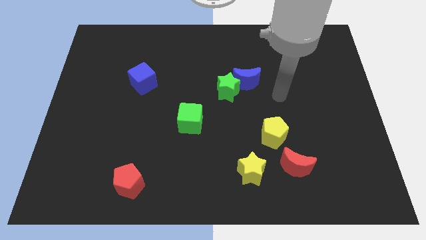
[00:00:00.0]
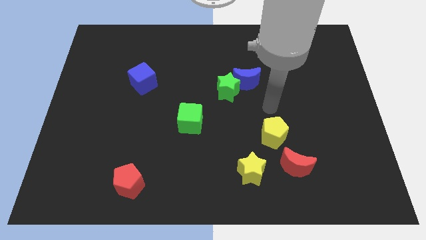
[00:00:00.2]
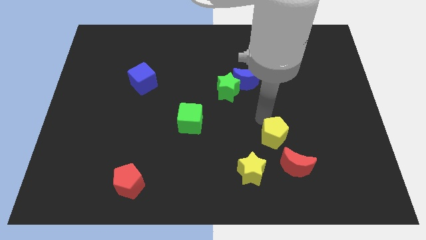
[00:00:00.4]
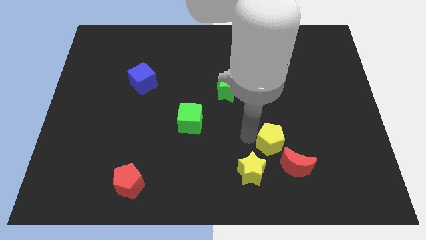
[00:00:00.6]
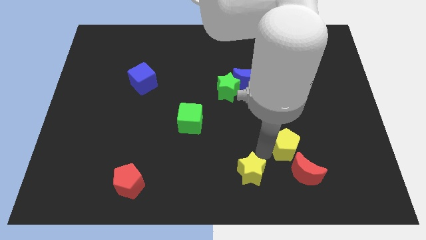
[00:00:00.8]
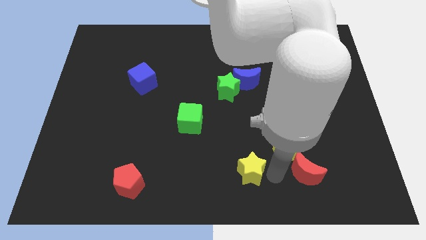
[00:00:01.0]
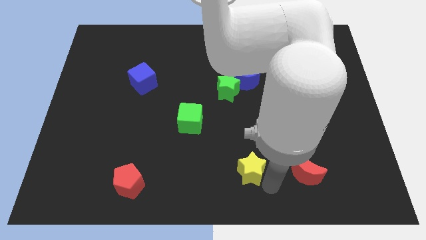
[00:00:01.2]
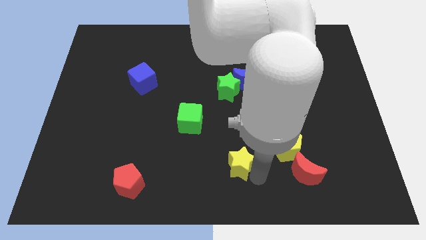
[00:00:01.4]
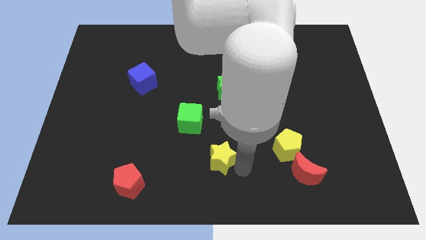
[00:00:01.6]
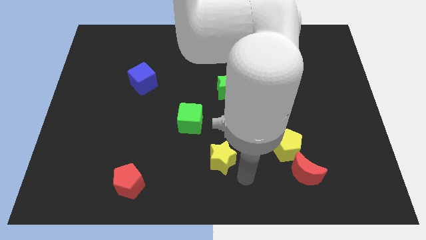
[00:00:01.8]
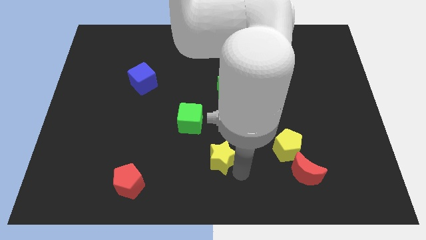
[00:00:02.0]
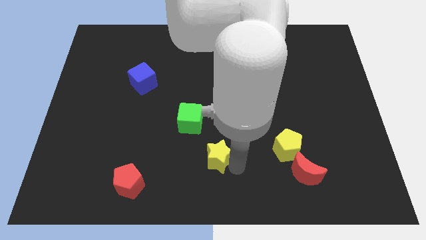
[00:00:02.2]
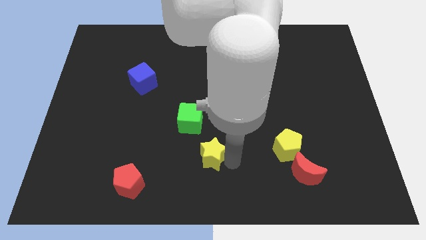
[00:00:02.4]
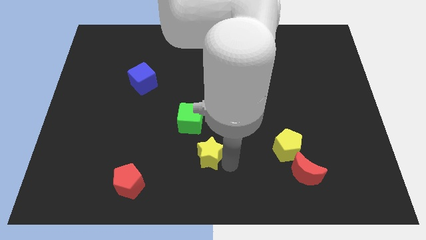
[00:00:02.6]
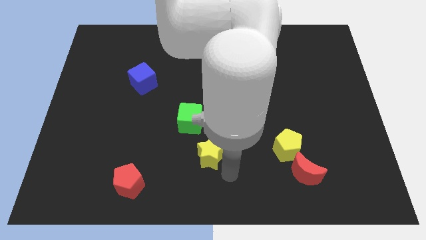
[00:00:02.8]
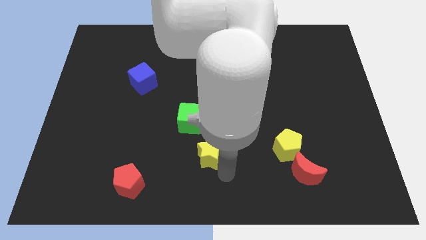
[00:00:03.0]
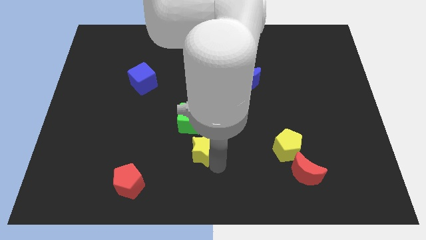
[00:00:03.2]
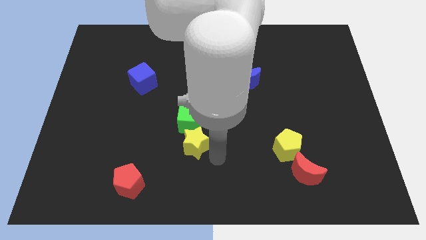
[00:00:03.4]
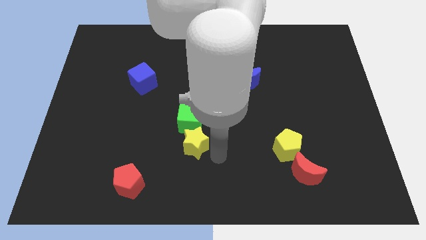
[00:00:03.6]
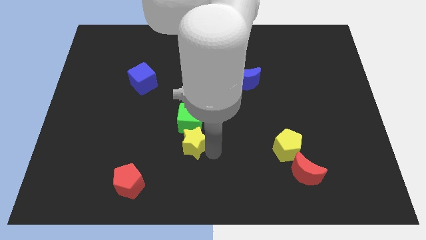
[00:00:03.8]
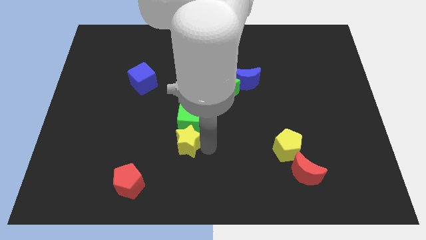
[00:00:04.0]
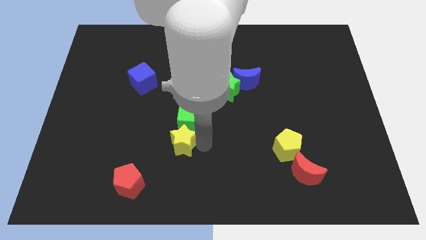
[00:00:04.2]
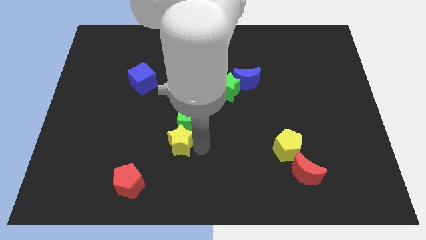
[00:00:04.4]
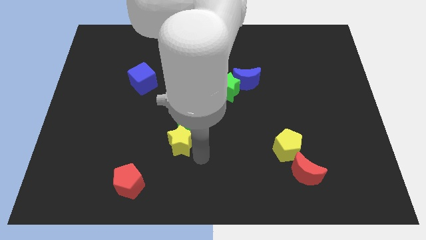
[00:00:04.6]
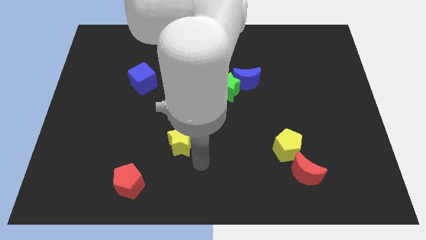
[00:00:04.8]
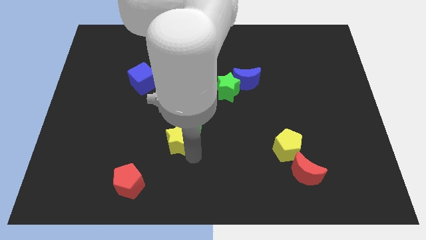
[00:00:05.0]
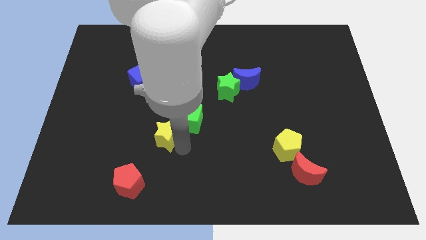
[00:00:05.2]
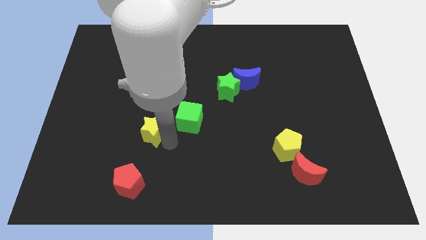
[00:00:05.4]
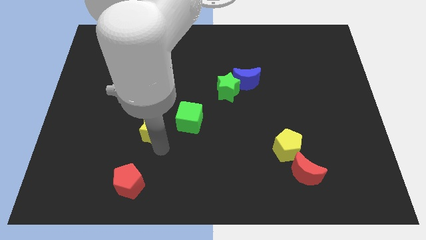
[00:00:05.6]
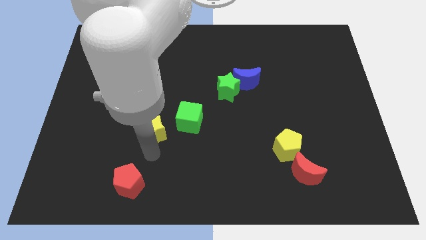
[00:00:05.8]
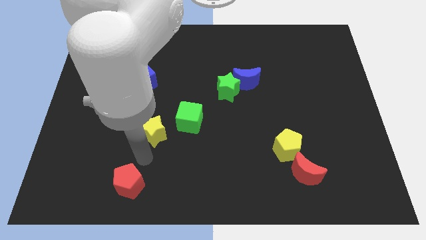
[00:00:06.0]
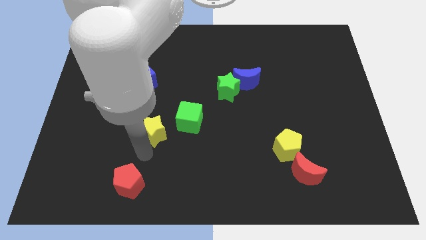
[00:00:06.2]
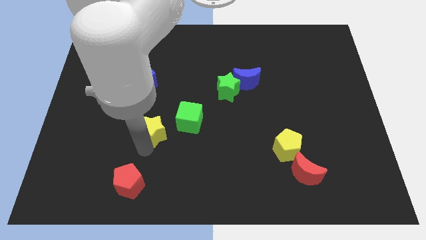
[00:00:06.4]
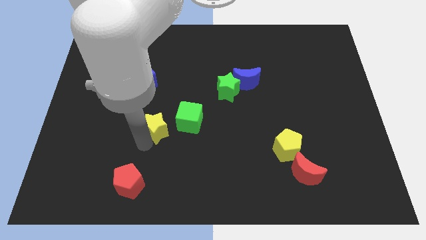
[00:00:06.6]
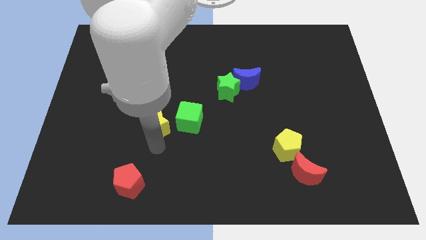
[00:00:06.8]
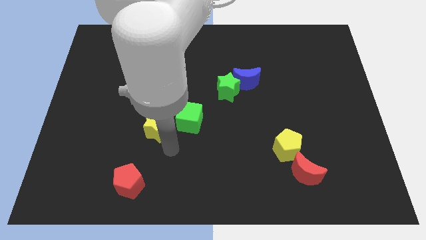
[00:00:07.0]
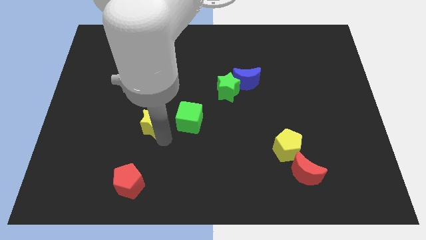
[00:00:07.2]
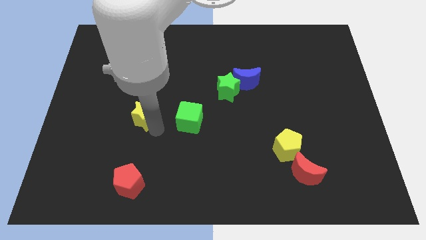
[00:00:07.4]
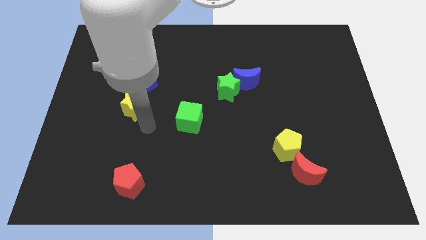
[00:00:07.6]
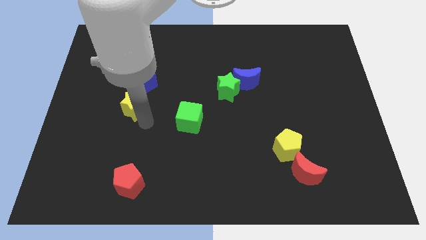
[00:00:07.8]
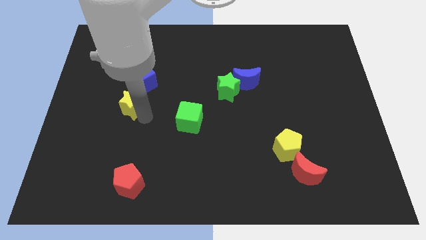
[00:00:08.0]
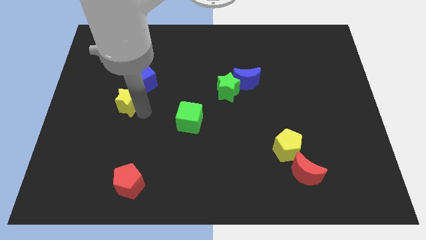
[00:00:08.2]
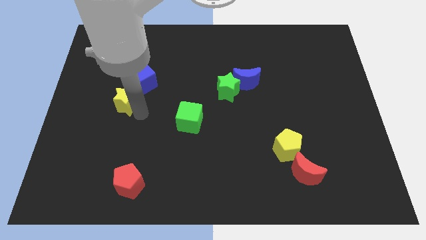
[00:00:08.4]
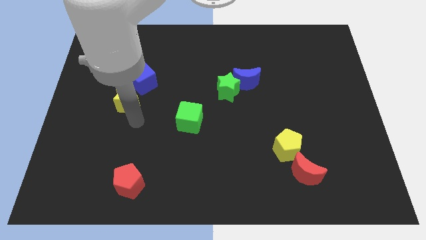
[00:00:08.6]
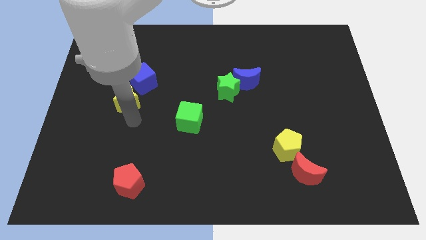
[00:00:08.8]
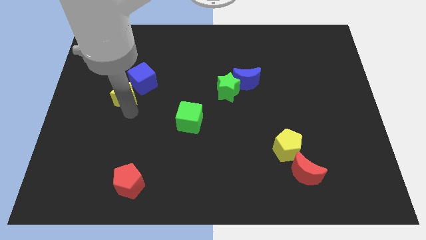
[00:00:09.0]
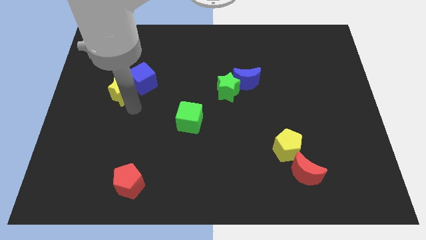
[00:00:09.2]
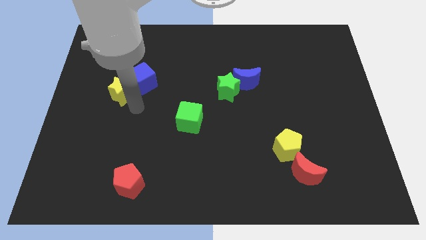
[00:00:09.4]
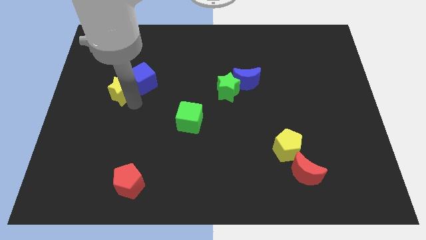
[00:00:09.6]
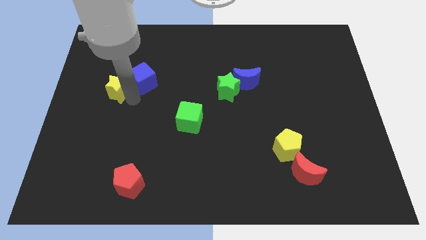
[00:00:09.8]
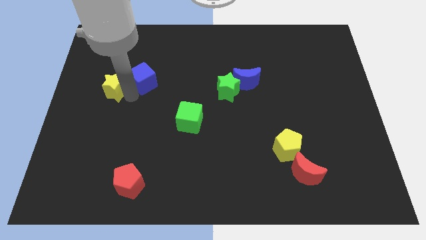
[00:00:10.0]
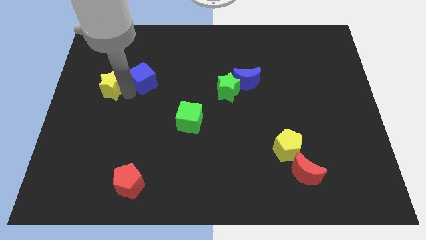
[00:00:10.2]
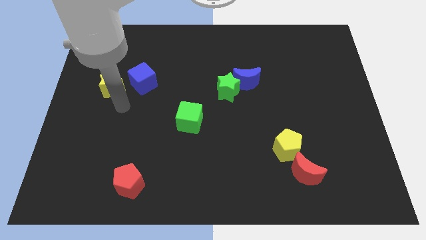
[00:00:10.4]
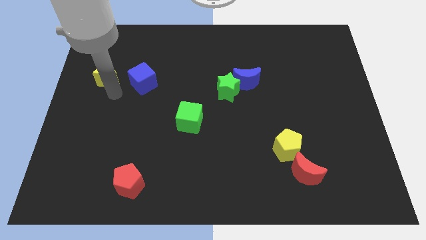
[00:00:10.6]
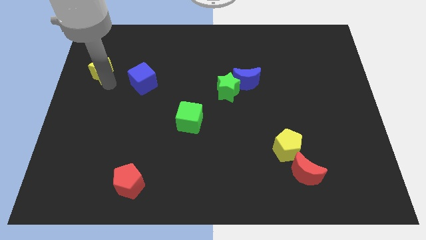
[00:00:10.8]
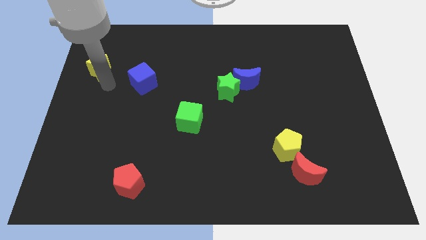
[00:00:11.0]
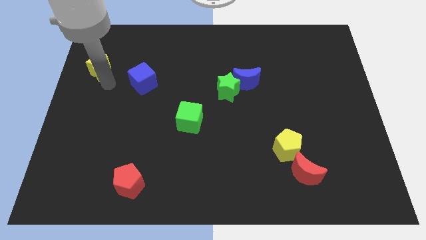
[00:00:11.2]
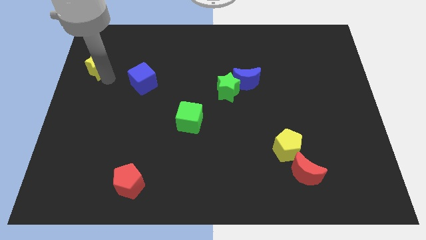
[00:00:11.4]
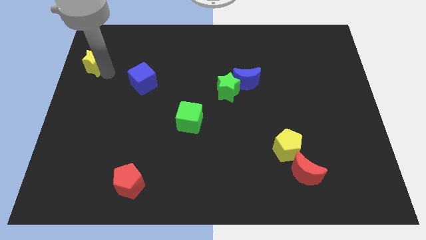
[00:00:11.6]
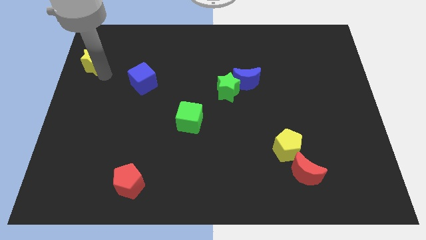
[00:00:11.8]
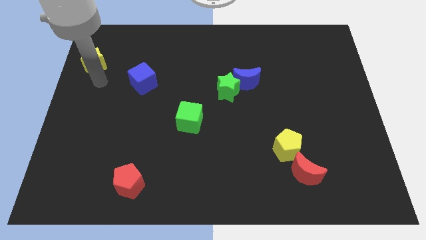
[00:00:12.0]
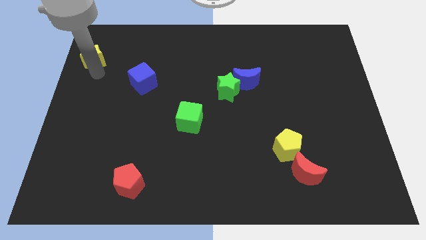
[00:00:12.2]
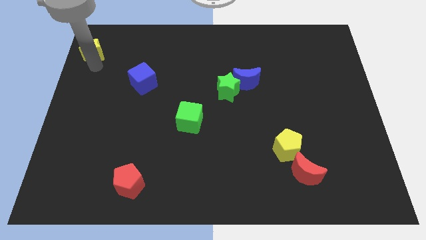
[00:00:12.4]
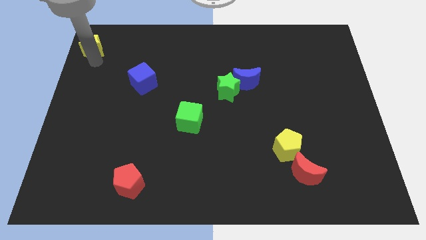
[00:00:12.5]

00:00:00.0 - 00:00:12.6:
move the yellow star to the upper left corner

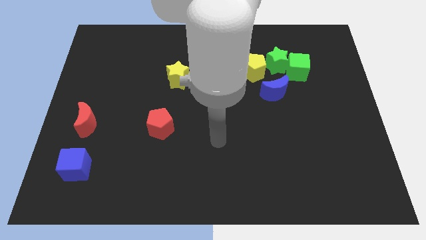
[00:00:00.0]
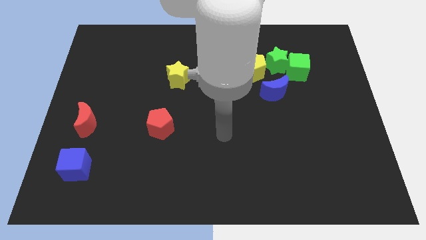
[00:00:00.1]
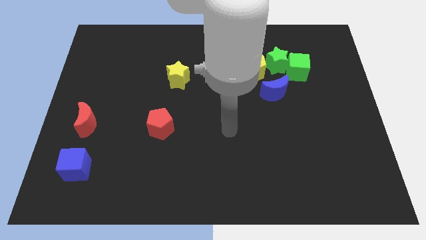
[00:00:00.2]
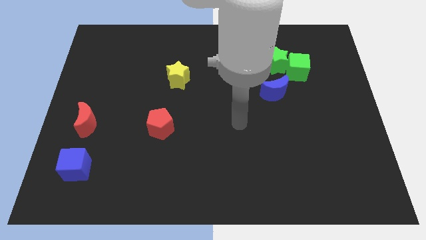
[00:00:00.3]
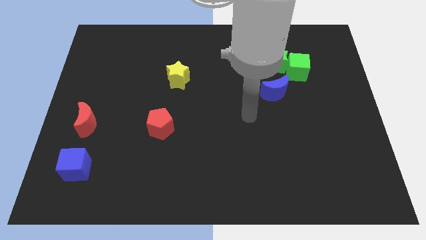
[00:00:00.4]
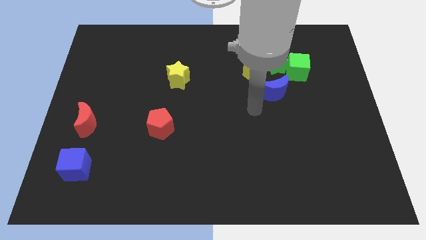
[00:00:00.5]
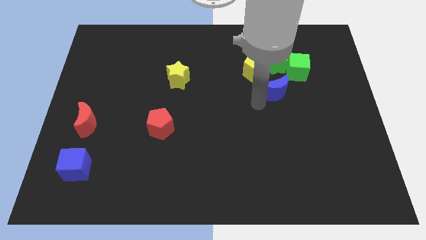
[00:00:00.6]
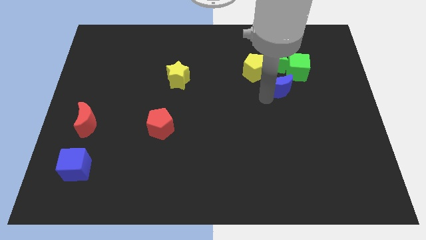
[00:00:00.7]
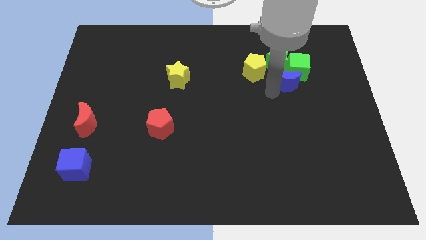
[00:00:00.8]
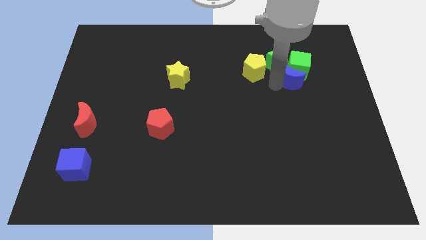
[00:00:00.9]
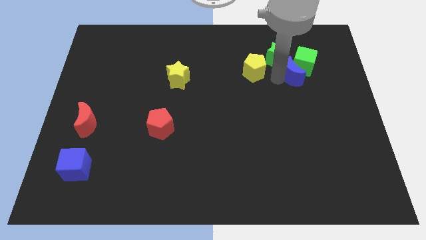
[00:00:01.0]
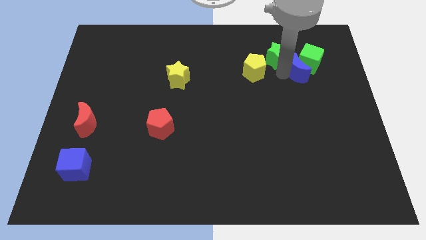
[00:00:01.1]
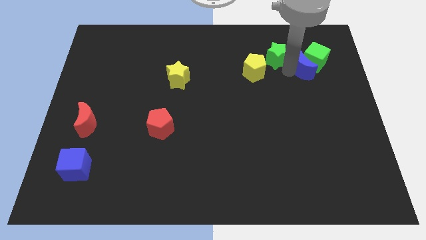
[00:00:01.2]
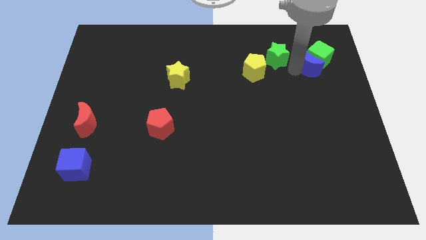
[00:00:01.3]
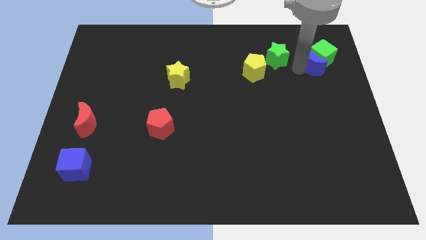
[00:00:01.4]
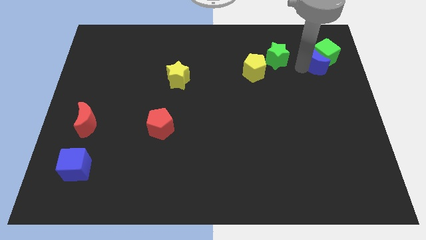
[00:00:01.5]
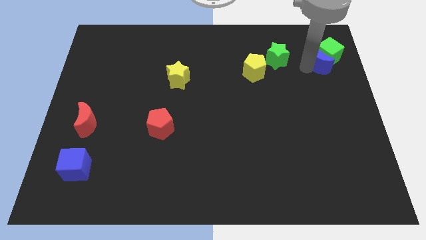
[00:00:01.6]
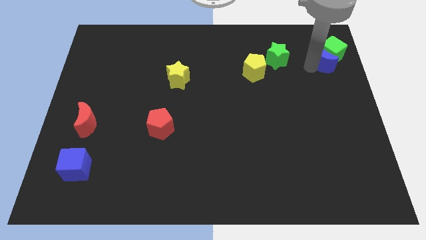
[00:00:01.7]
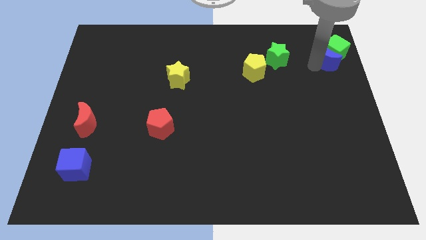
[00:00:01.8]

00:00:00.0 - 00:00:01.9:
push the green cube to the top right of the board
